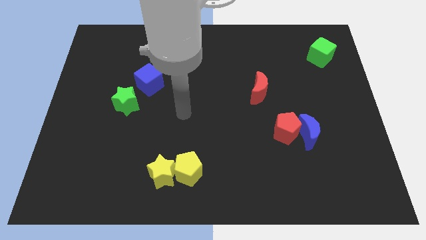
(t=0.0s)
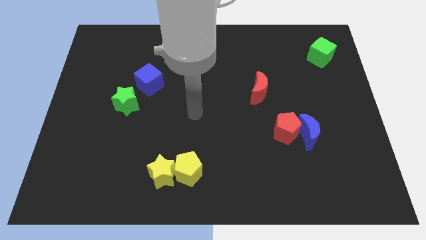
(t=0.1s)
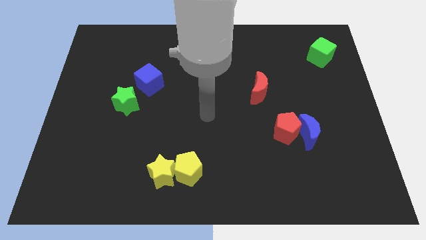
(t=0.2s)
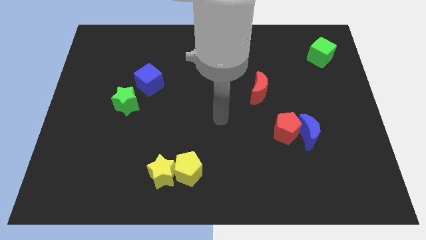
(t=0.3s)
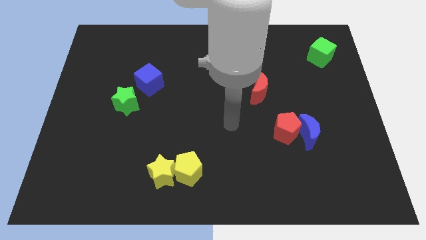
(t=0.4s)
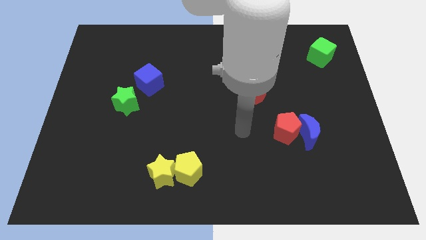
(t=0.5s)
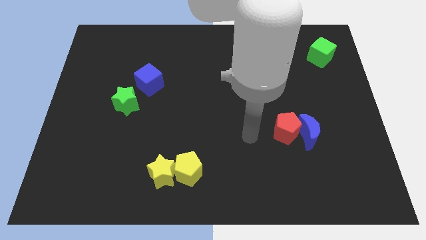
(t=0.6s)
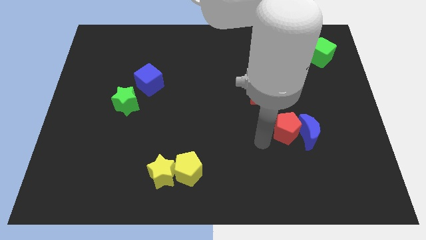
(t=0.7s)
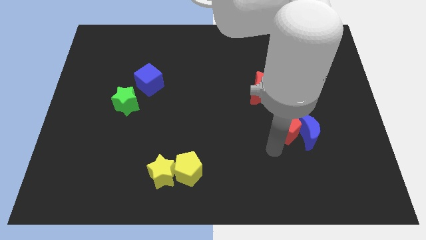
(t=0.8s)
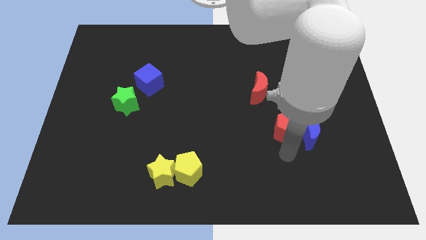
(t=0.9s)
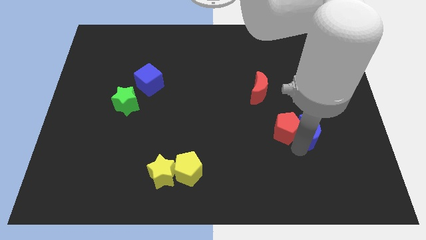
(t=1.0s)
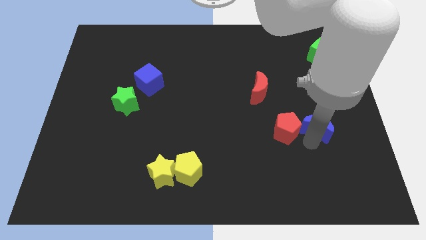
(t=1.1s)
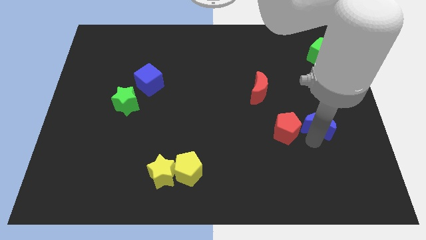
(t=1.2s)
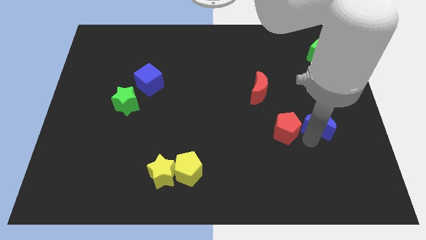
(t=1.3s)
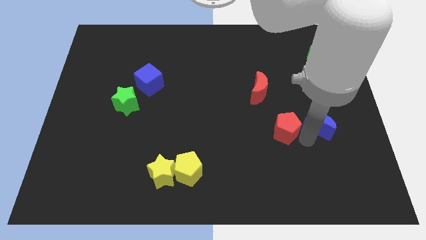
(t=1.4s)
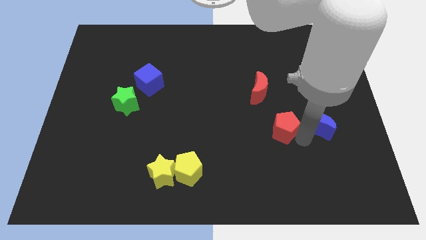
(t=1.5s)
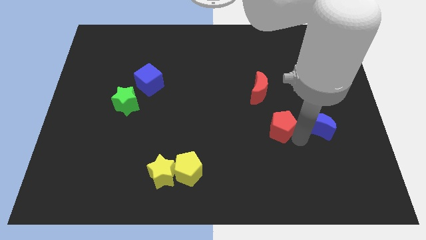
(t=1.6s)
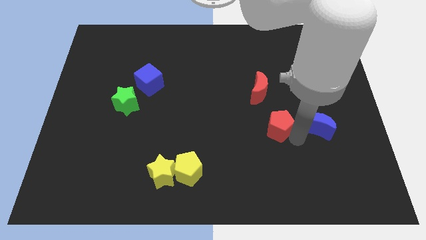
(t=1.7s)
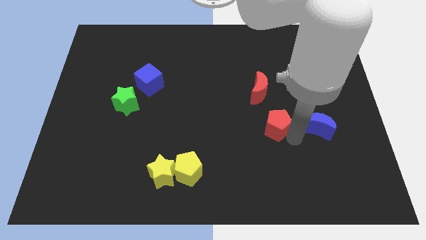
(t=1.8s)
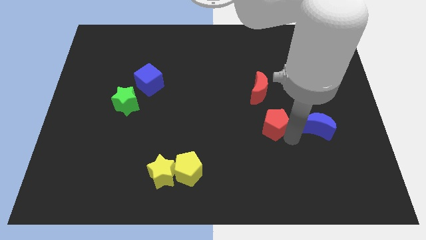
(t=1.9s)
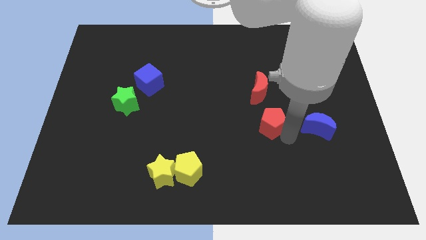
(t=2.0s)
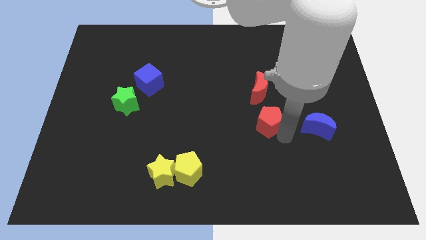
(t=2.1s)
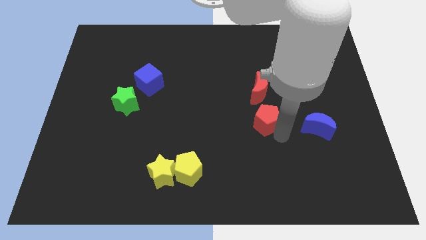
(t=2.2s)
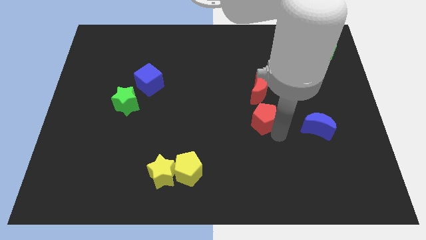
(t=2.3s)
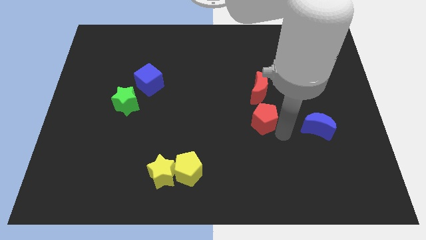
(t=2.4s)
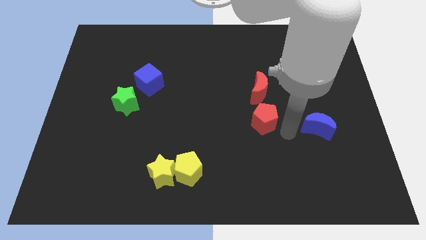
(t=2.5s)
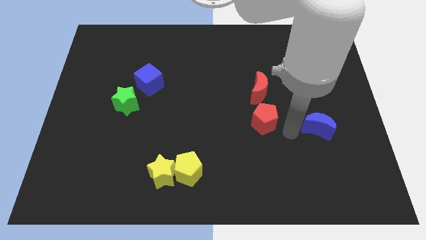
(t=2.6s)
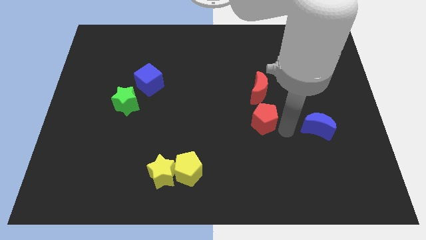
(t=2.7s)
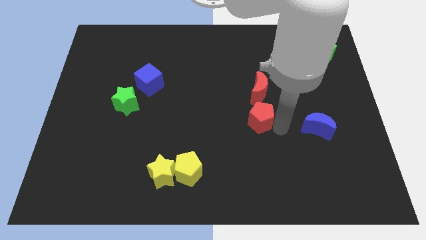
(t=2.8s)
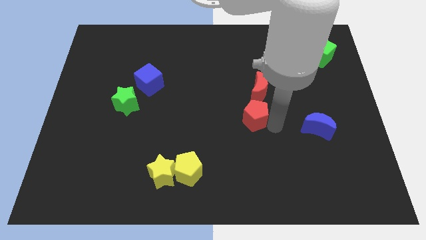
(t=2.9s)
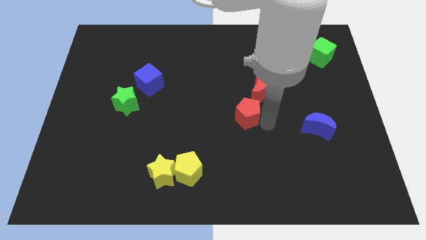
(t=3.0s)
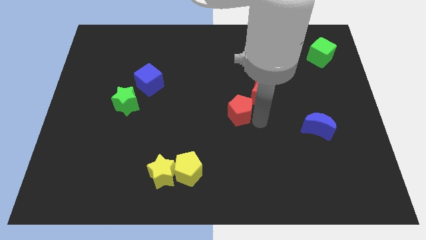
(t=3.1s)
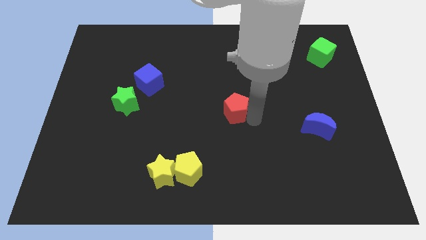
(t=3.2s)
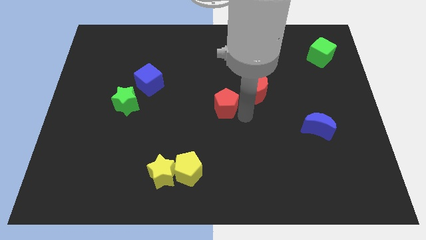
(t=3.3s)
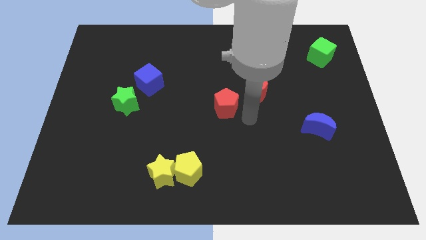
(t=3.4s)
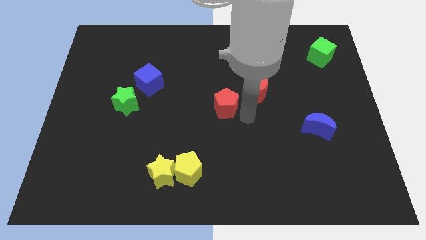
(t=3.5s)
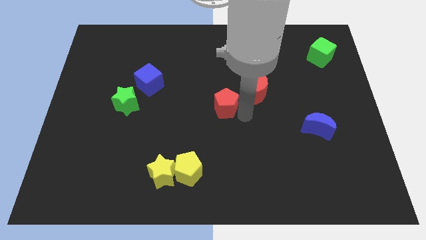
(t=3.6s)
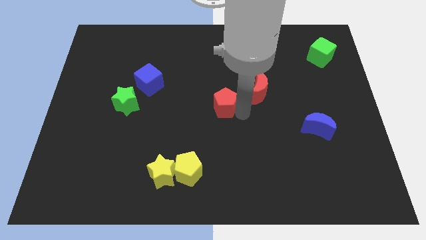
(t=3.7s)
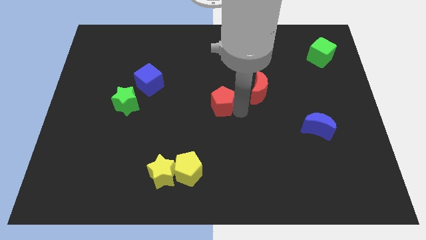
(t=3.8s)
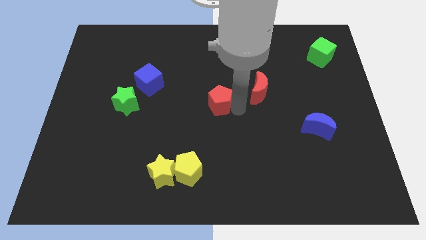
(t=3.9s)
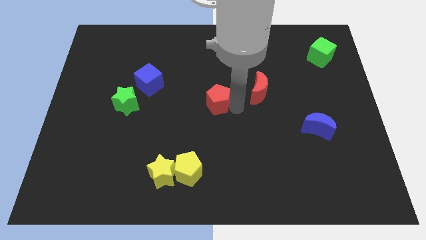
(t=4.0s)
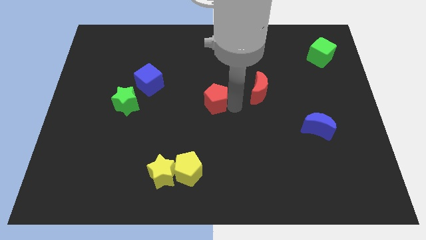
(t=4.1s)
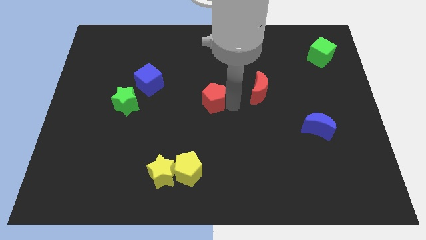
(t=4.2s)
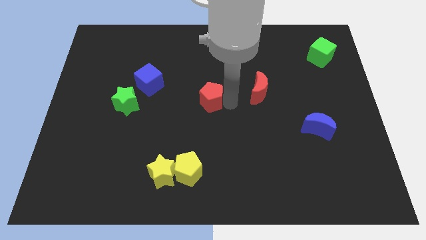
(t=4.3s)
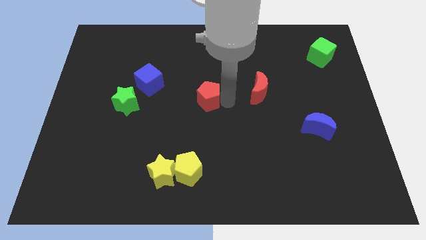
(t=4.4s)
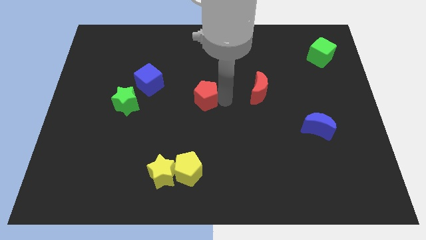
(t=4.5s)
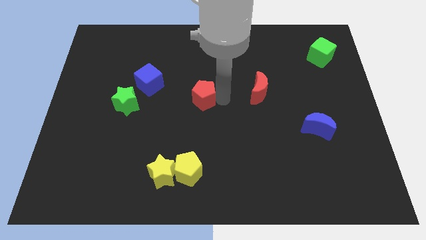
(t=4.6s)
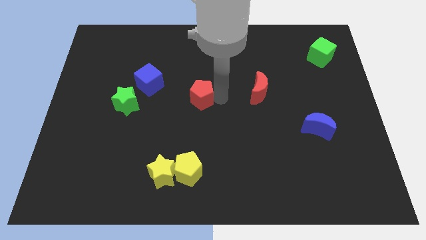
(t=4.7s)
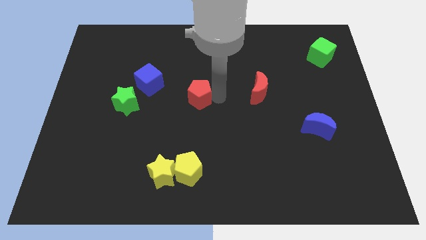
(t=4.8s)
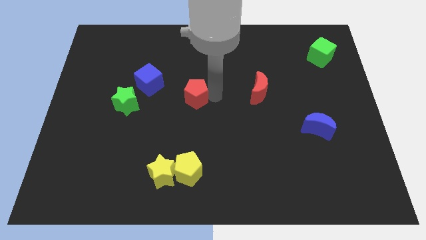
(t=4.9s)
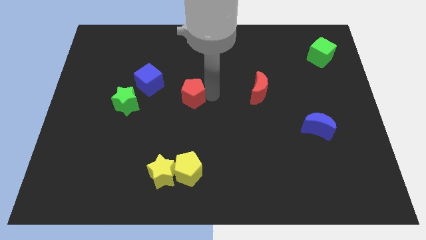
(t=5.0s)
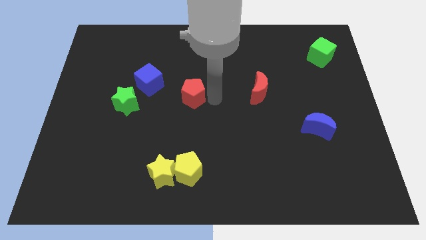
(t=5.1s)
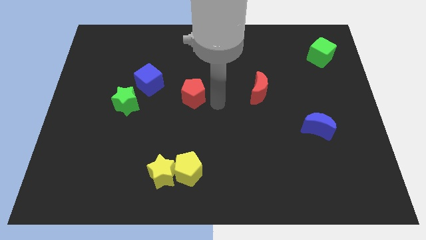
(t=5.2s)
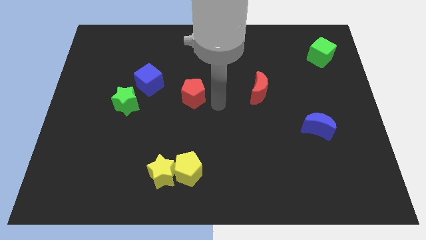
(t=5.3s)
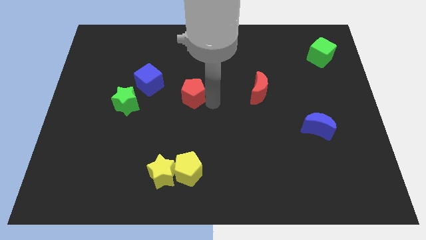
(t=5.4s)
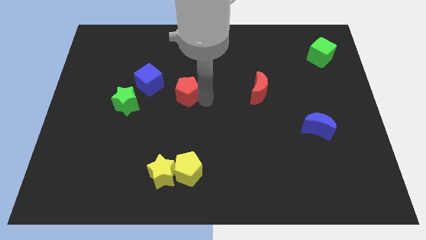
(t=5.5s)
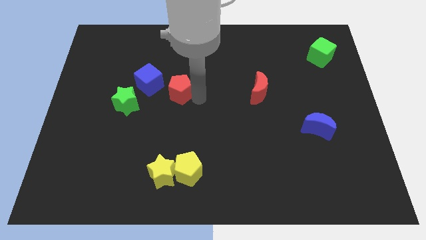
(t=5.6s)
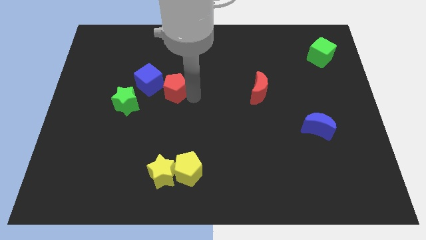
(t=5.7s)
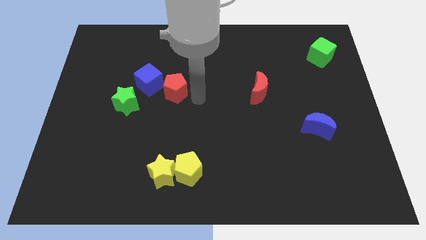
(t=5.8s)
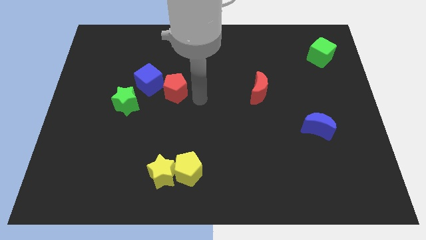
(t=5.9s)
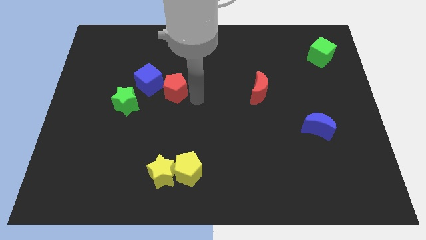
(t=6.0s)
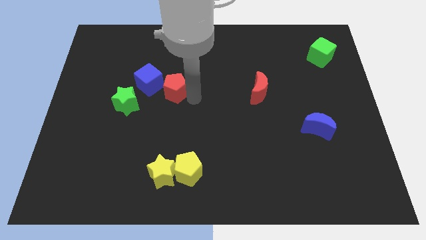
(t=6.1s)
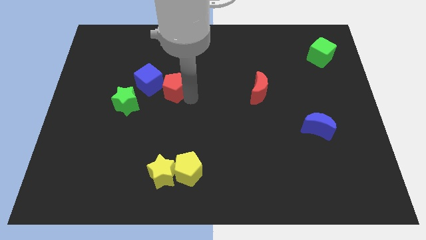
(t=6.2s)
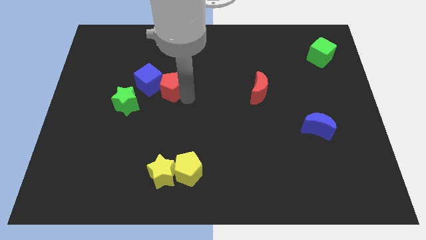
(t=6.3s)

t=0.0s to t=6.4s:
slide the red pentagon towards the blue cube
